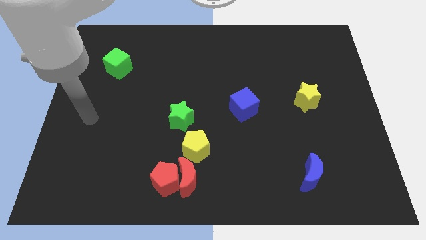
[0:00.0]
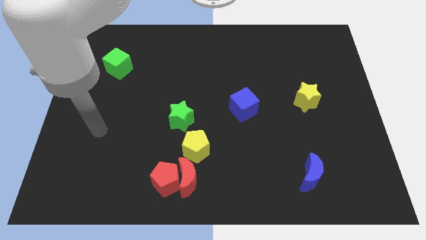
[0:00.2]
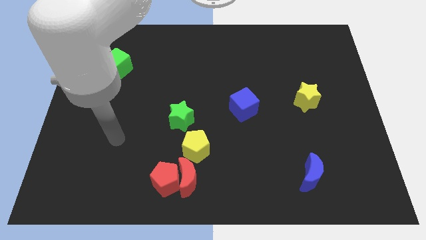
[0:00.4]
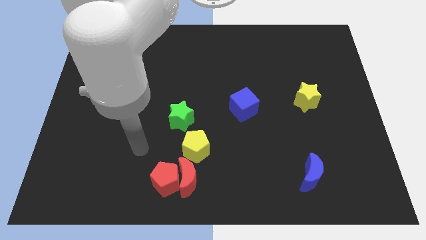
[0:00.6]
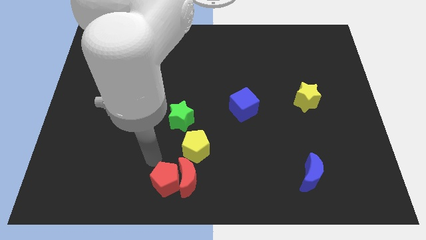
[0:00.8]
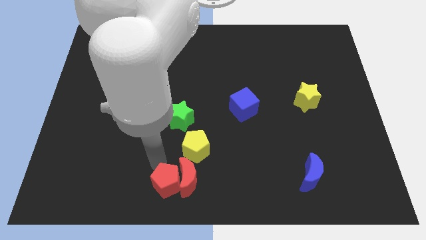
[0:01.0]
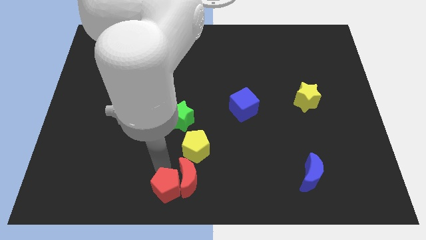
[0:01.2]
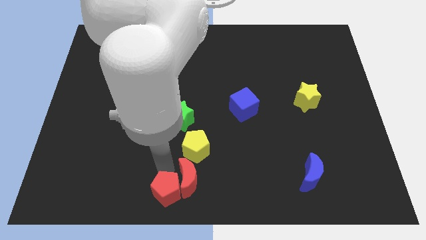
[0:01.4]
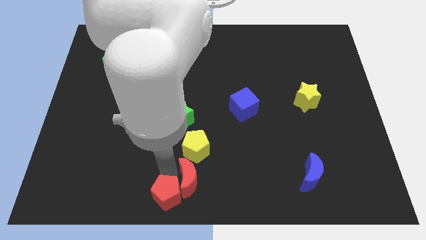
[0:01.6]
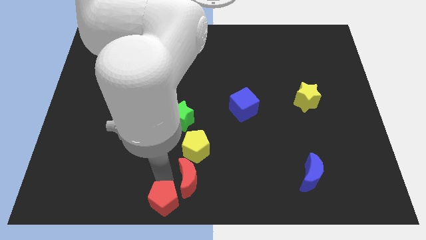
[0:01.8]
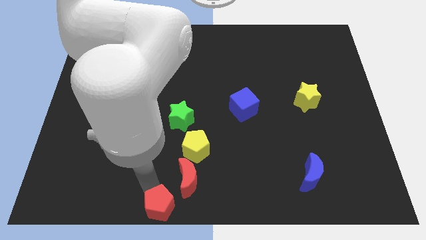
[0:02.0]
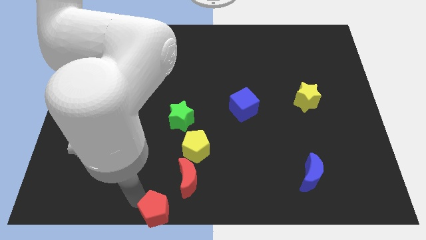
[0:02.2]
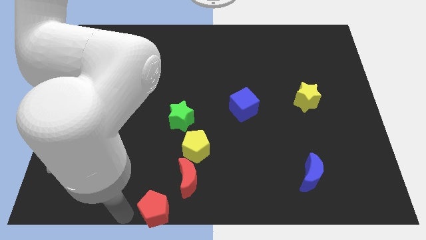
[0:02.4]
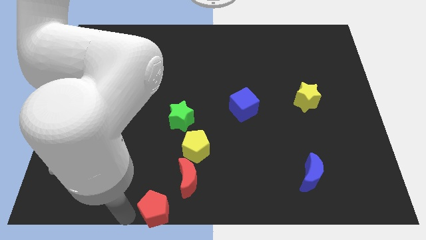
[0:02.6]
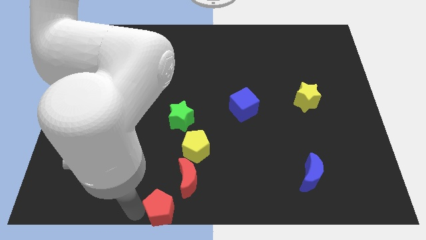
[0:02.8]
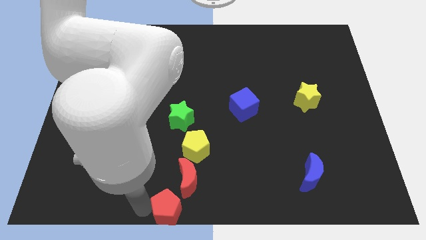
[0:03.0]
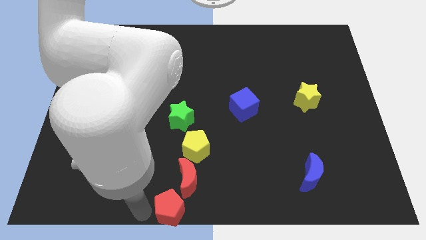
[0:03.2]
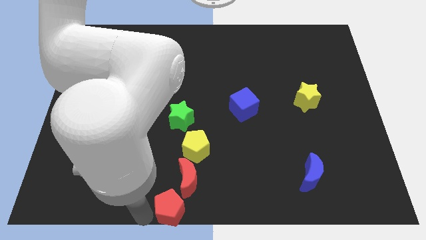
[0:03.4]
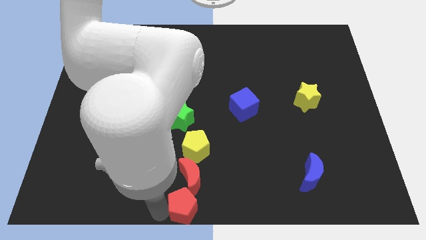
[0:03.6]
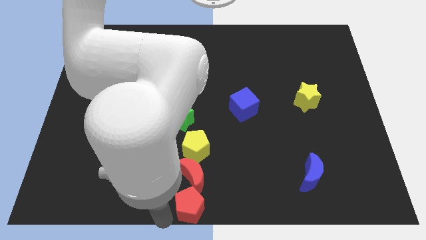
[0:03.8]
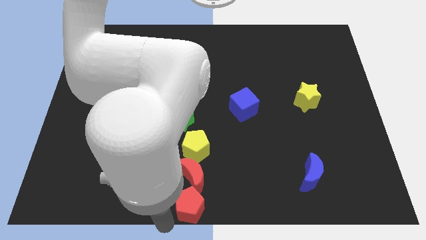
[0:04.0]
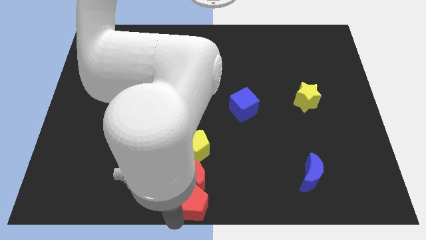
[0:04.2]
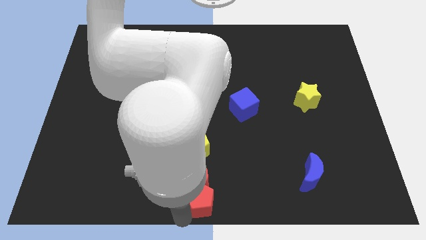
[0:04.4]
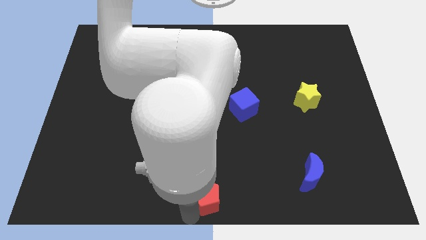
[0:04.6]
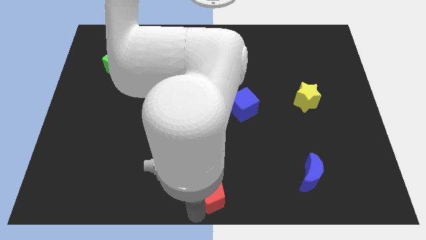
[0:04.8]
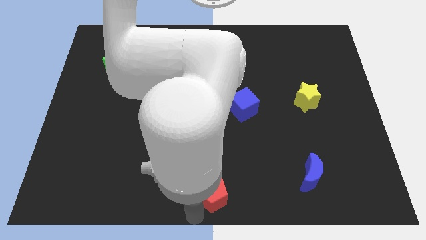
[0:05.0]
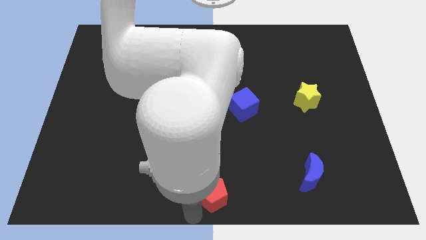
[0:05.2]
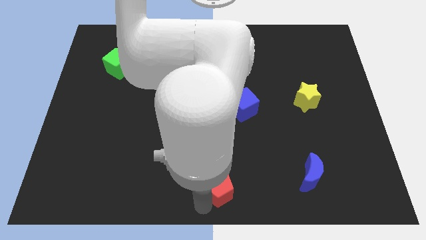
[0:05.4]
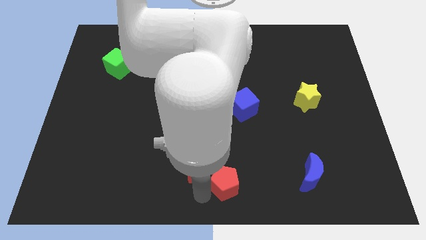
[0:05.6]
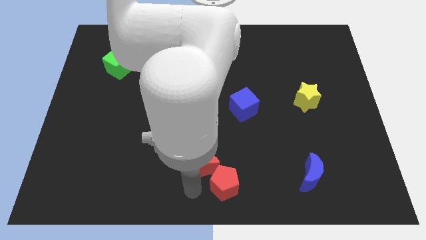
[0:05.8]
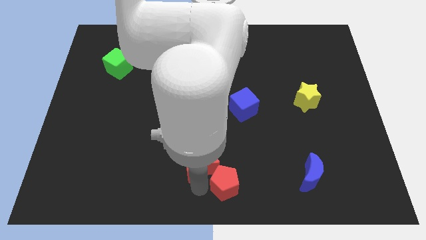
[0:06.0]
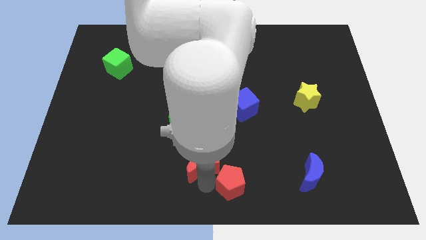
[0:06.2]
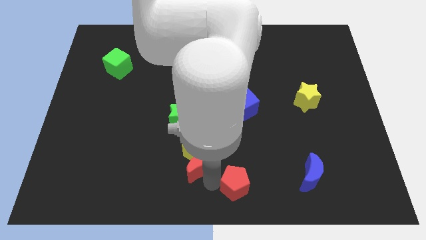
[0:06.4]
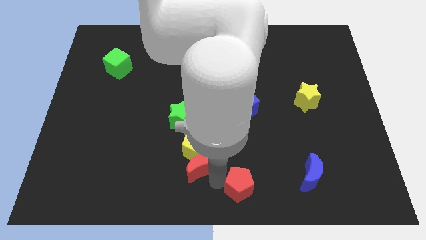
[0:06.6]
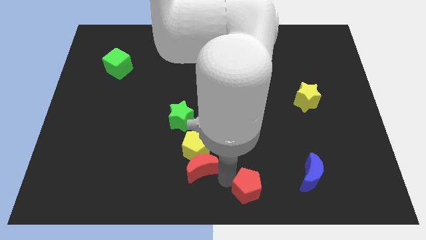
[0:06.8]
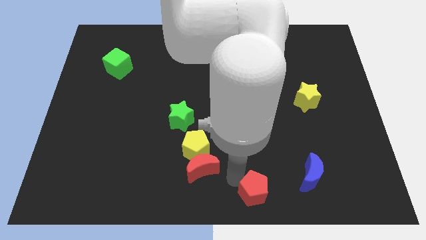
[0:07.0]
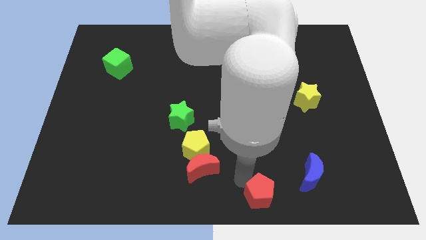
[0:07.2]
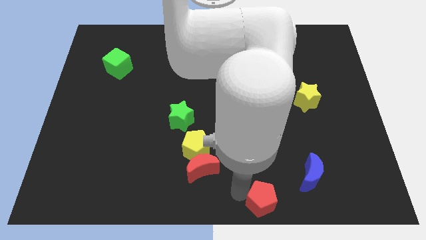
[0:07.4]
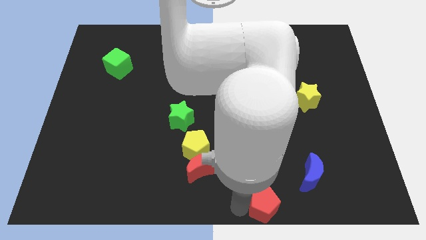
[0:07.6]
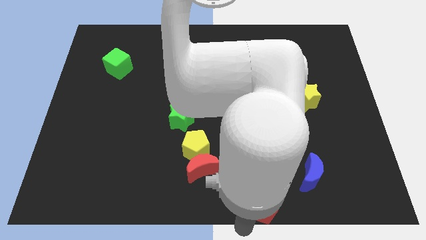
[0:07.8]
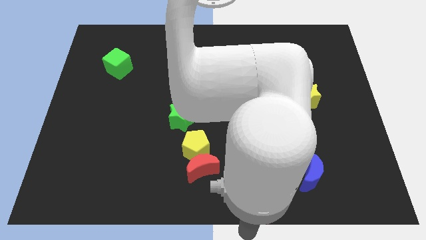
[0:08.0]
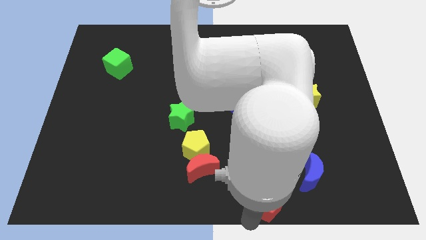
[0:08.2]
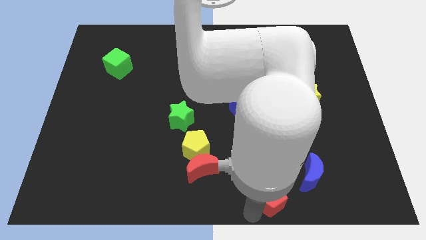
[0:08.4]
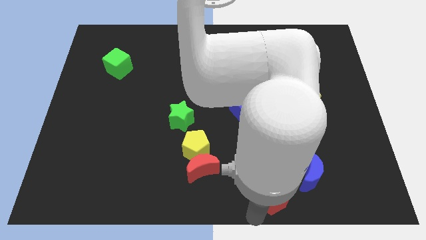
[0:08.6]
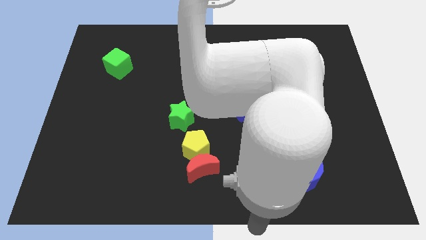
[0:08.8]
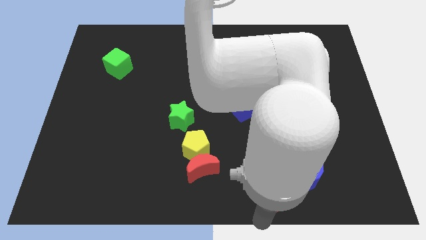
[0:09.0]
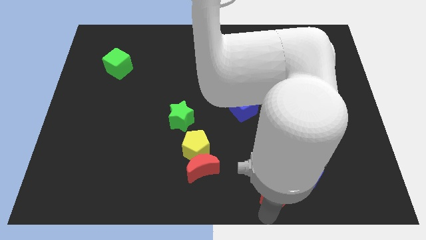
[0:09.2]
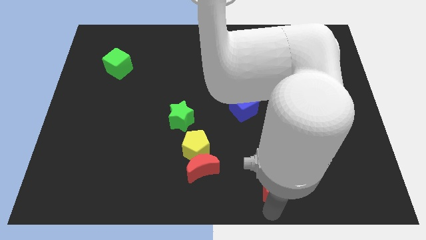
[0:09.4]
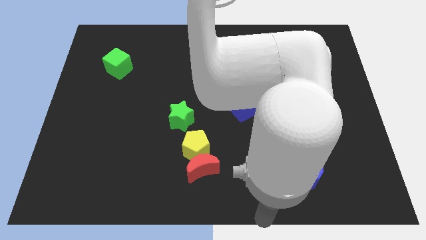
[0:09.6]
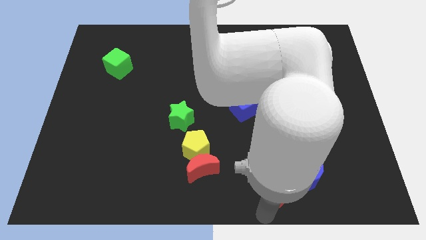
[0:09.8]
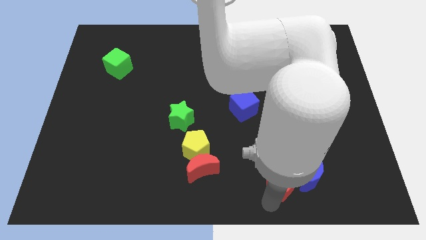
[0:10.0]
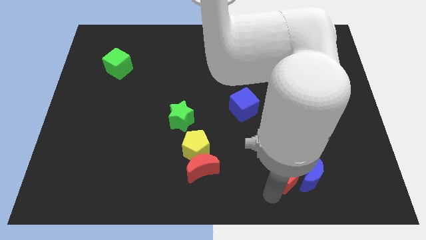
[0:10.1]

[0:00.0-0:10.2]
push the red pentagon towards the blue moon

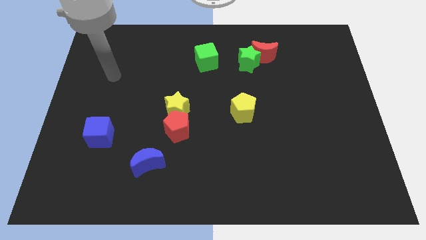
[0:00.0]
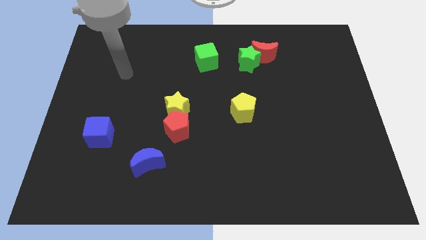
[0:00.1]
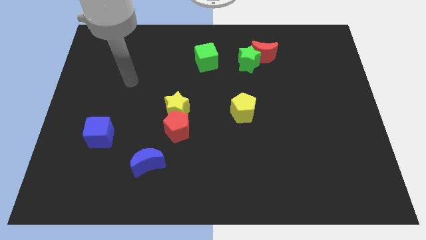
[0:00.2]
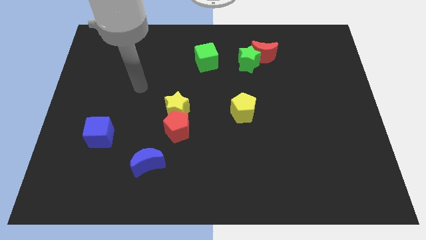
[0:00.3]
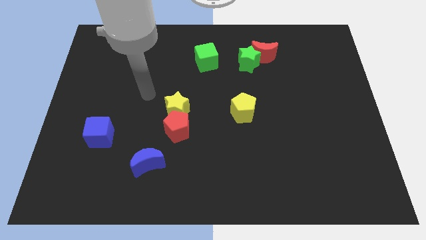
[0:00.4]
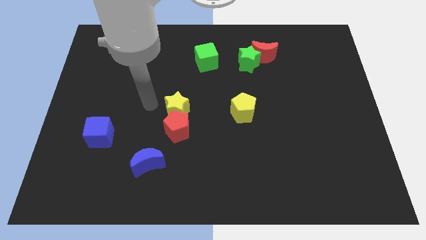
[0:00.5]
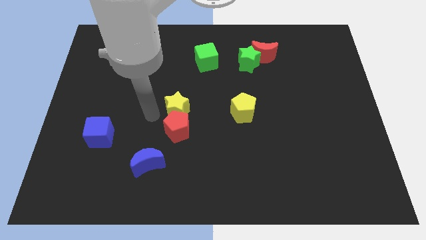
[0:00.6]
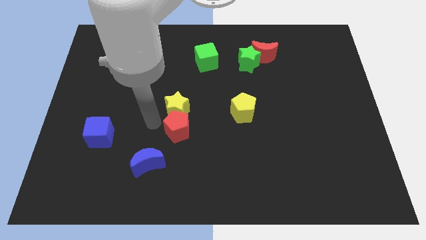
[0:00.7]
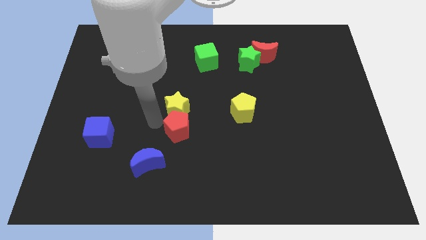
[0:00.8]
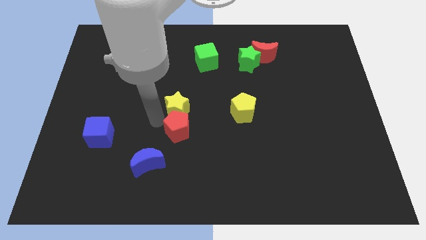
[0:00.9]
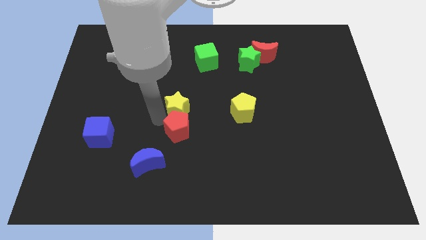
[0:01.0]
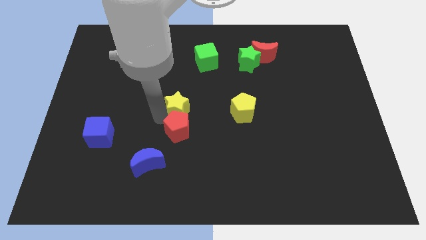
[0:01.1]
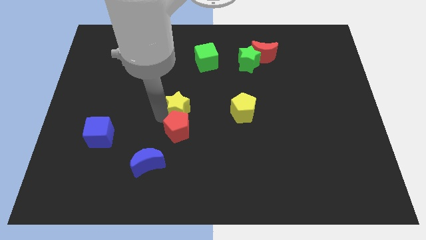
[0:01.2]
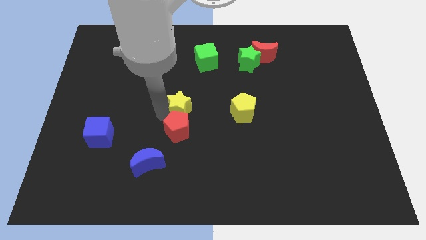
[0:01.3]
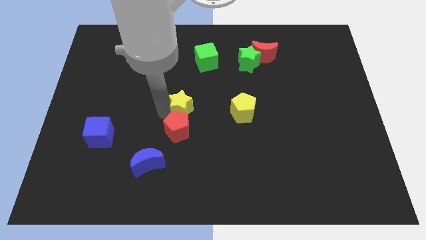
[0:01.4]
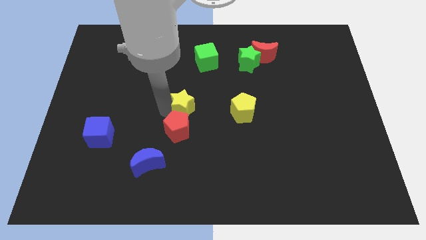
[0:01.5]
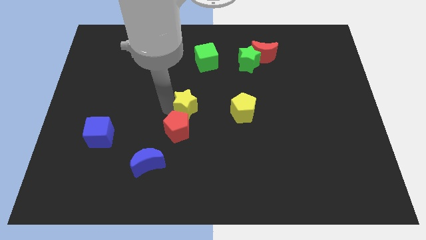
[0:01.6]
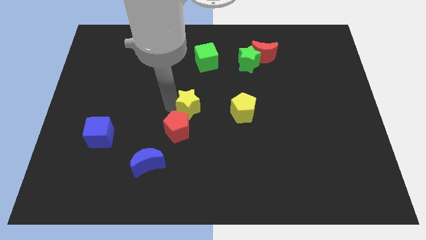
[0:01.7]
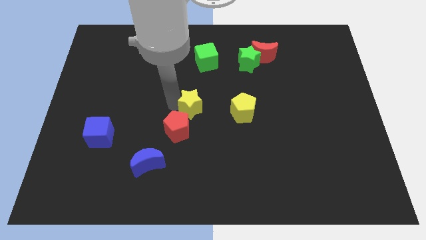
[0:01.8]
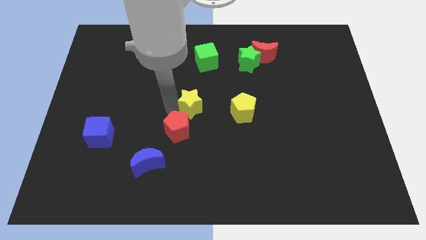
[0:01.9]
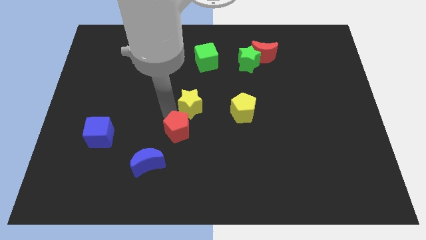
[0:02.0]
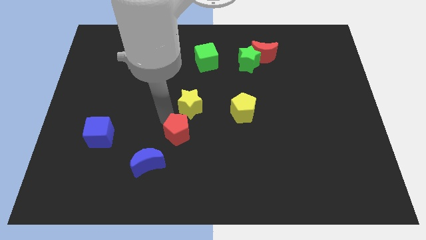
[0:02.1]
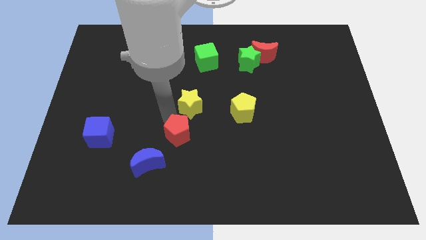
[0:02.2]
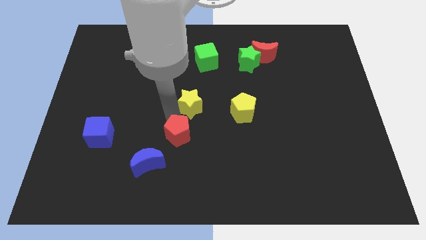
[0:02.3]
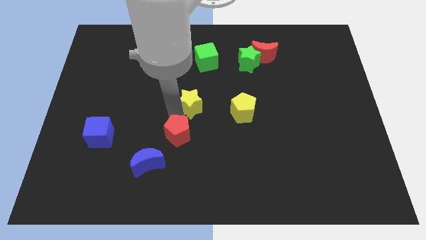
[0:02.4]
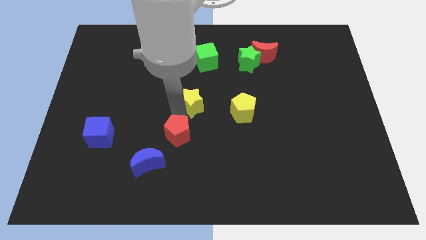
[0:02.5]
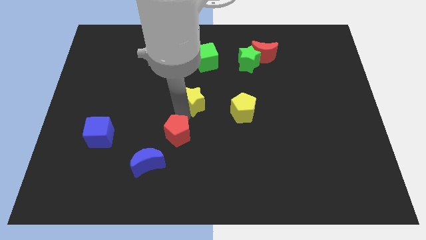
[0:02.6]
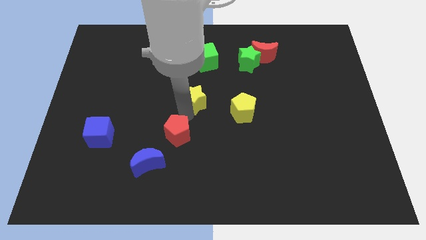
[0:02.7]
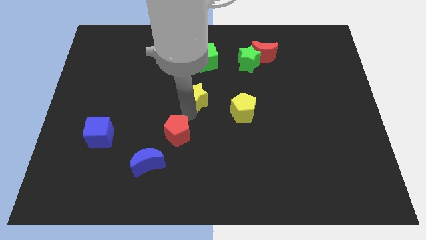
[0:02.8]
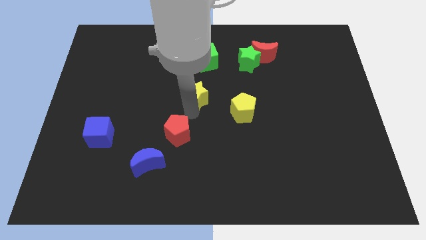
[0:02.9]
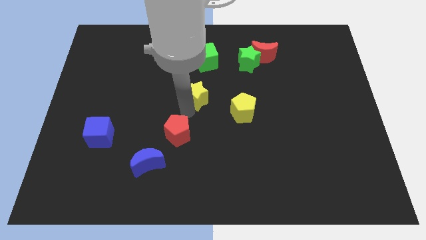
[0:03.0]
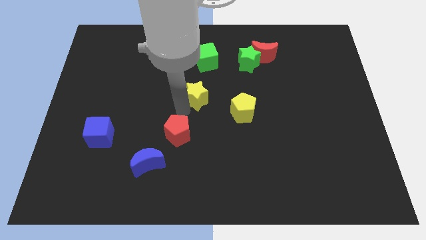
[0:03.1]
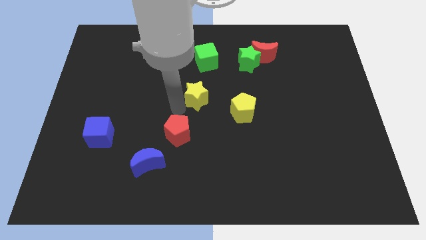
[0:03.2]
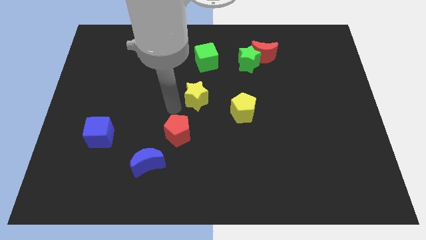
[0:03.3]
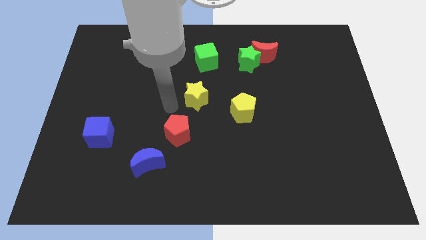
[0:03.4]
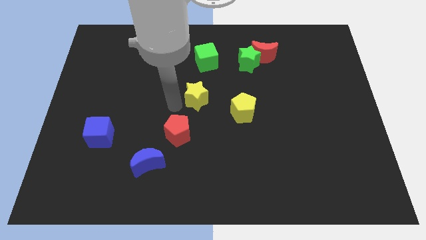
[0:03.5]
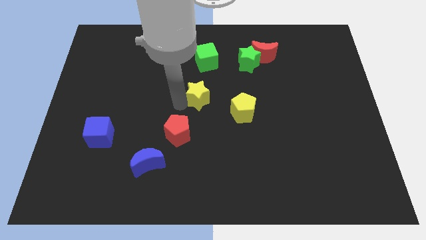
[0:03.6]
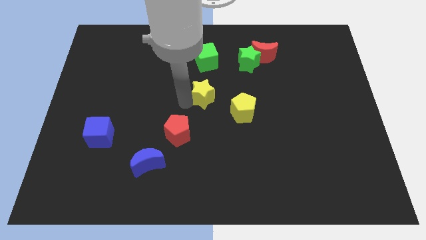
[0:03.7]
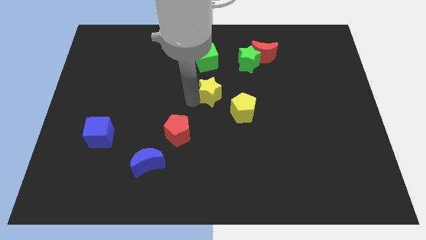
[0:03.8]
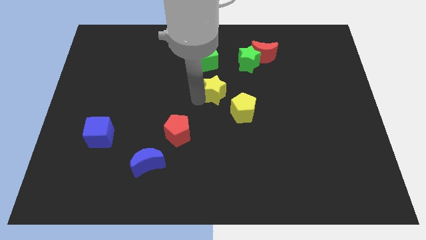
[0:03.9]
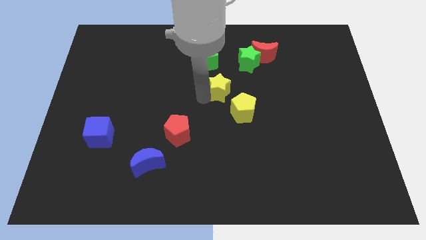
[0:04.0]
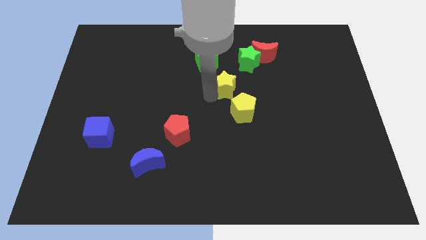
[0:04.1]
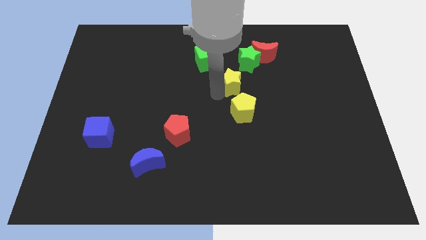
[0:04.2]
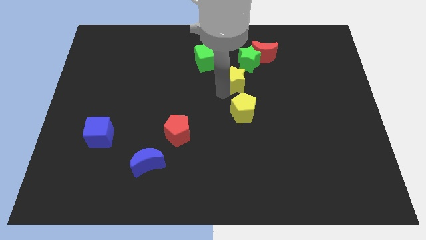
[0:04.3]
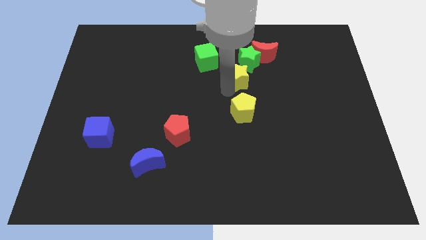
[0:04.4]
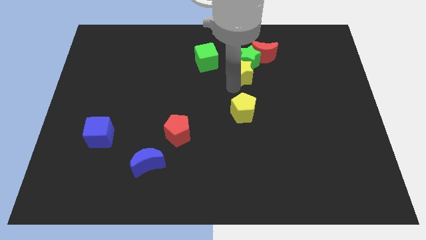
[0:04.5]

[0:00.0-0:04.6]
push the yellow star towards the green star
